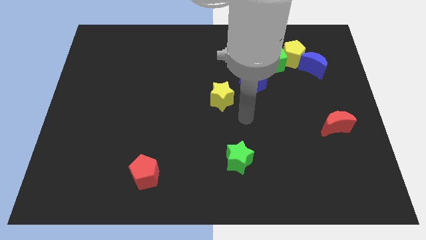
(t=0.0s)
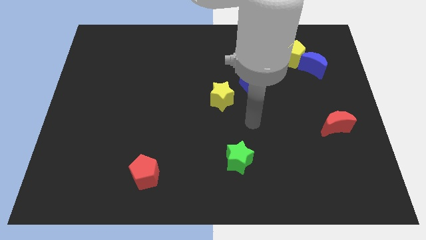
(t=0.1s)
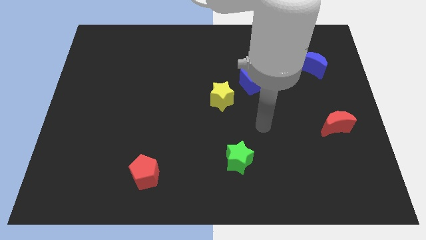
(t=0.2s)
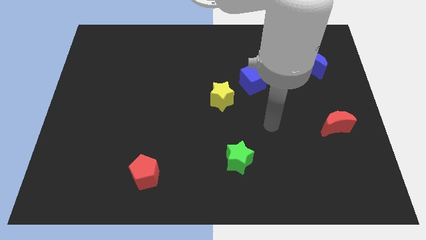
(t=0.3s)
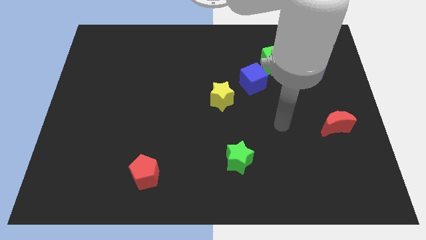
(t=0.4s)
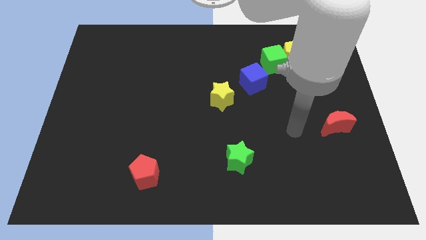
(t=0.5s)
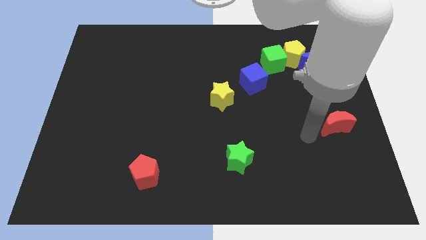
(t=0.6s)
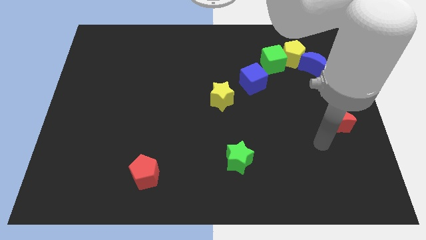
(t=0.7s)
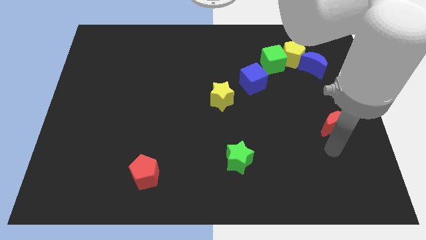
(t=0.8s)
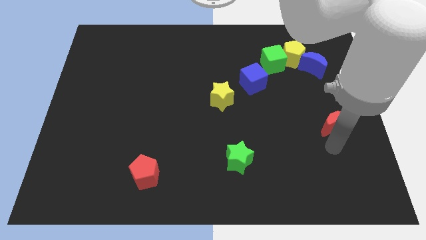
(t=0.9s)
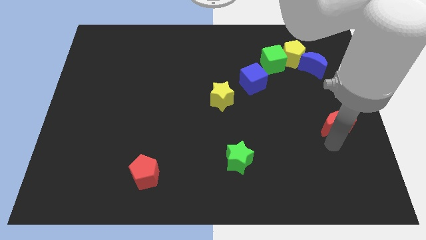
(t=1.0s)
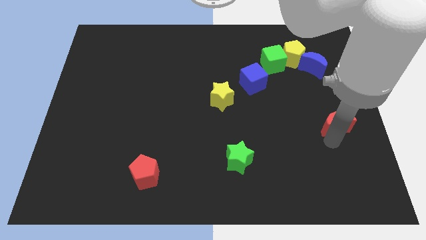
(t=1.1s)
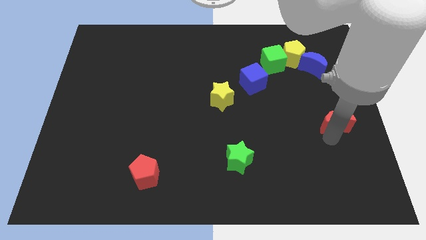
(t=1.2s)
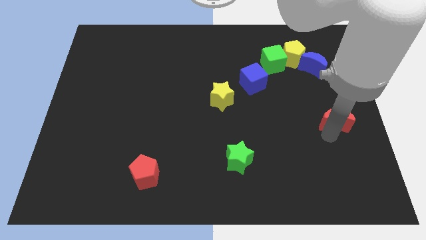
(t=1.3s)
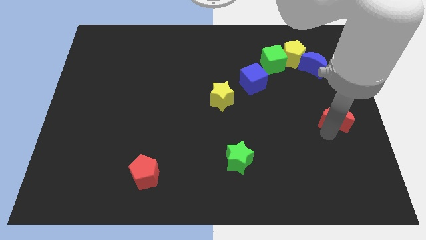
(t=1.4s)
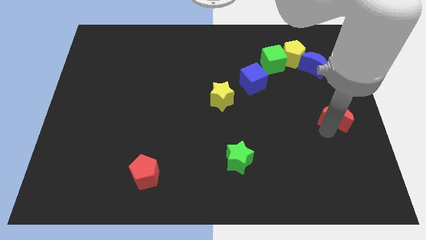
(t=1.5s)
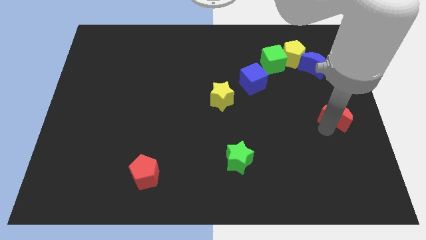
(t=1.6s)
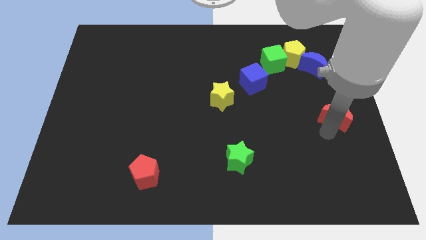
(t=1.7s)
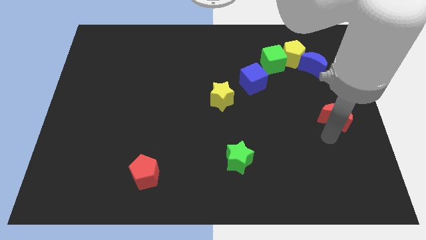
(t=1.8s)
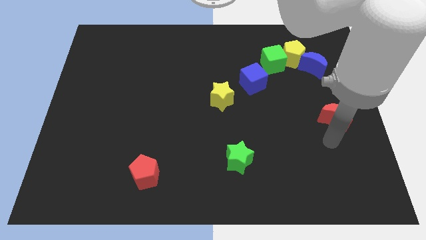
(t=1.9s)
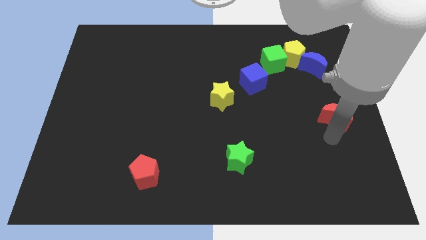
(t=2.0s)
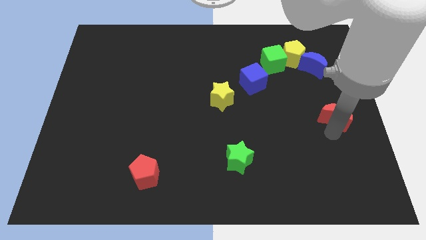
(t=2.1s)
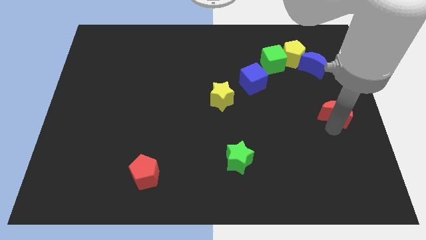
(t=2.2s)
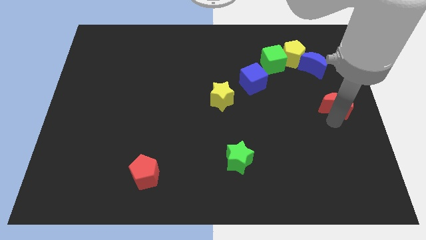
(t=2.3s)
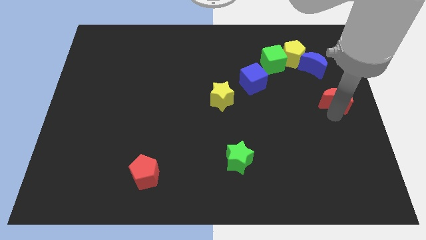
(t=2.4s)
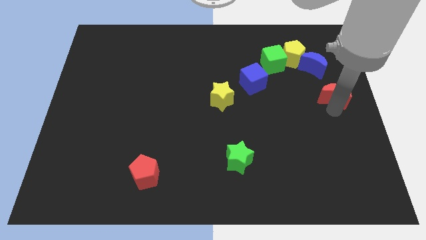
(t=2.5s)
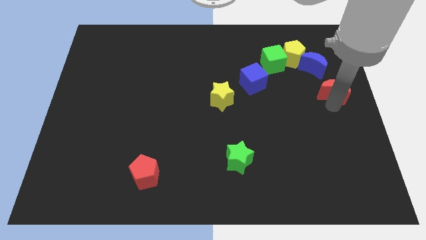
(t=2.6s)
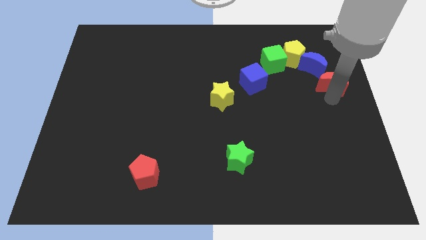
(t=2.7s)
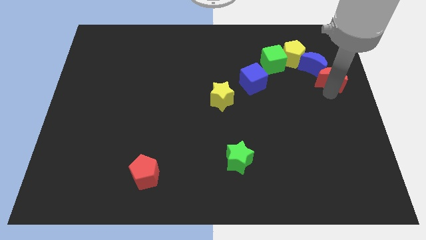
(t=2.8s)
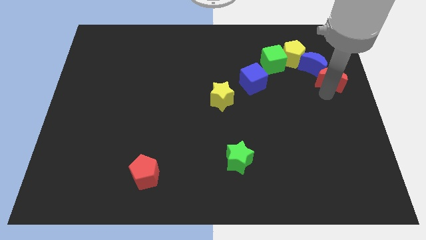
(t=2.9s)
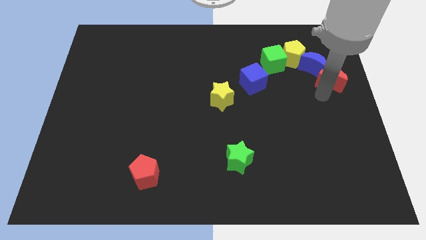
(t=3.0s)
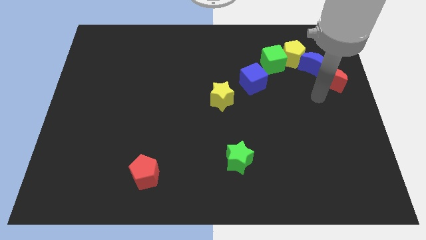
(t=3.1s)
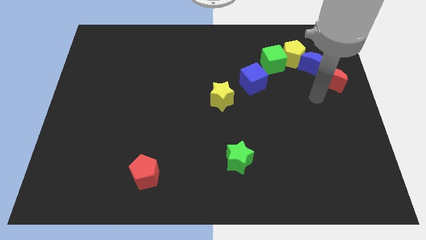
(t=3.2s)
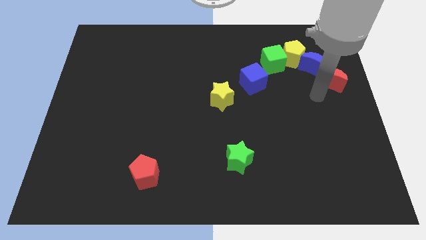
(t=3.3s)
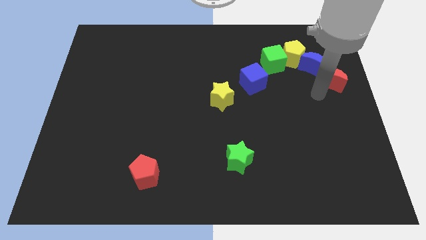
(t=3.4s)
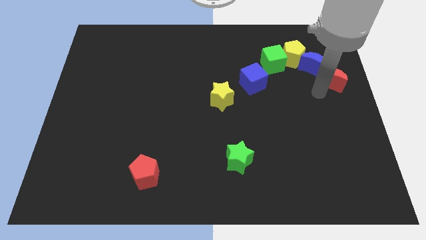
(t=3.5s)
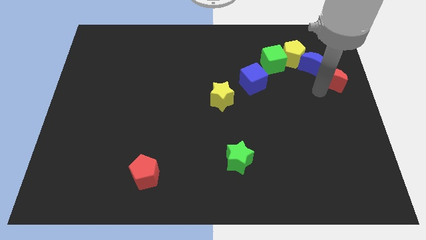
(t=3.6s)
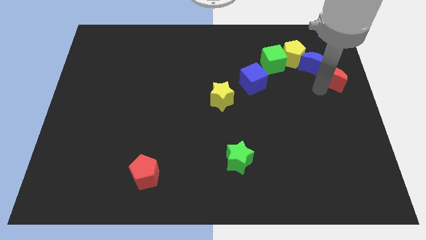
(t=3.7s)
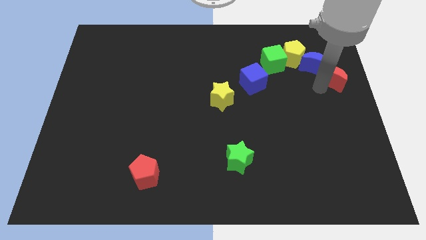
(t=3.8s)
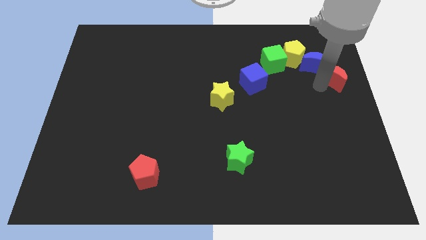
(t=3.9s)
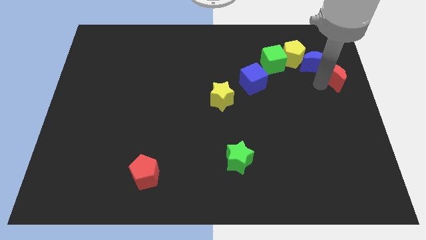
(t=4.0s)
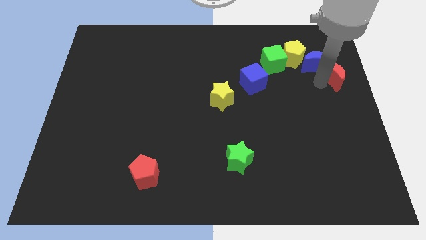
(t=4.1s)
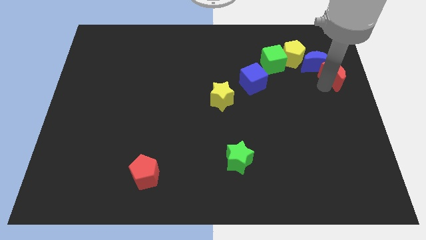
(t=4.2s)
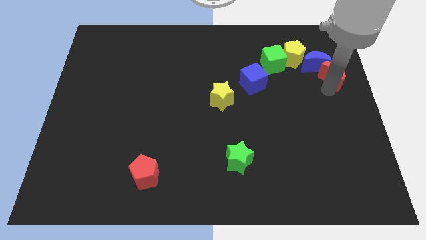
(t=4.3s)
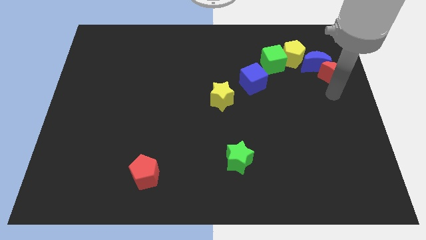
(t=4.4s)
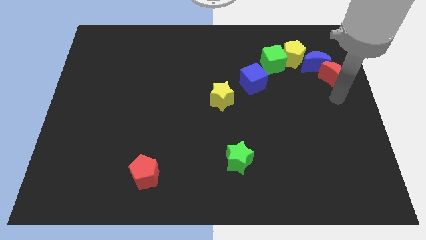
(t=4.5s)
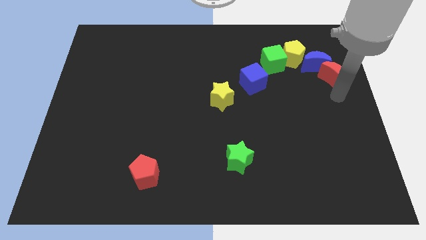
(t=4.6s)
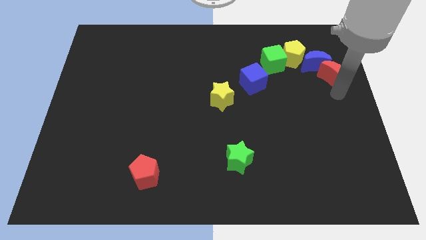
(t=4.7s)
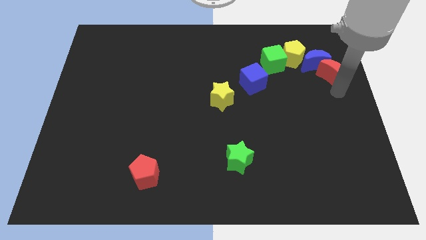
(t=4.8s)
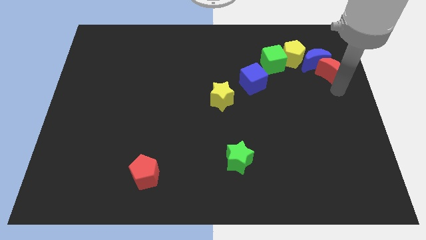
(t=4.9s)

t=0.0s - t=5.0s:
push the red moon just right of the green cube

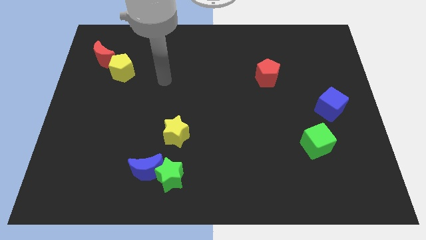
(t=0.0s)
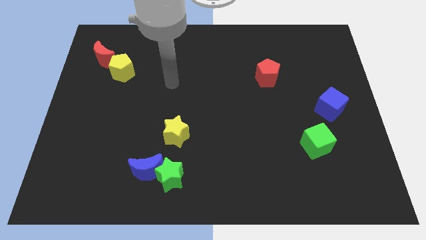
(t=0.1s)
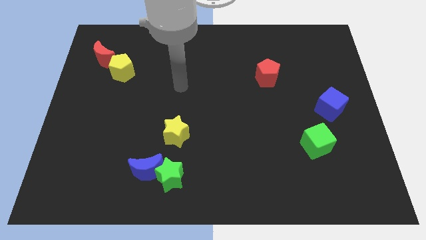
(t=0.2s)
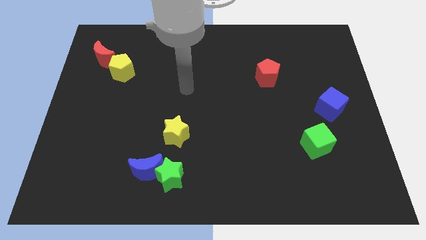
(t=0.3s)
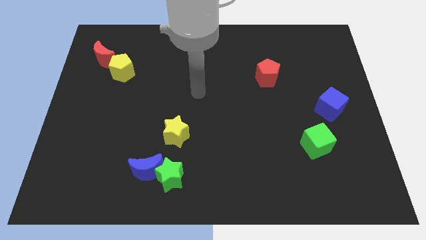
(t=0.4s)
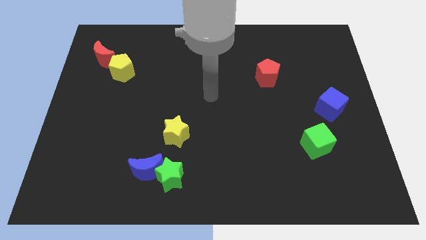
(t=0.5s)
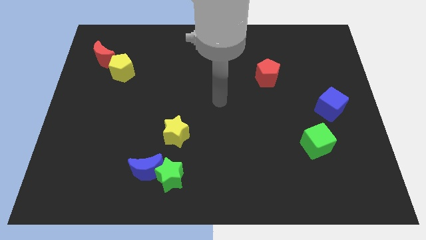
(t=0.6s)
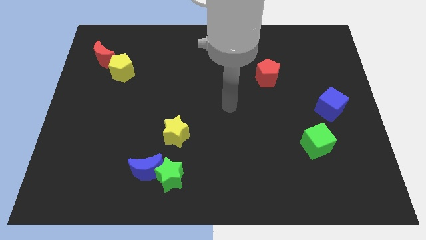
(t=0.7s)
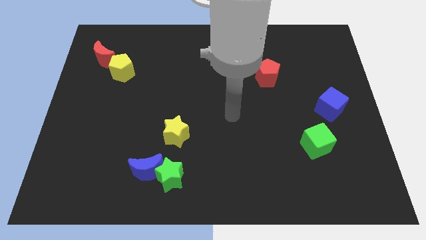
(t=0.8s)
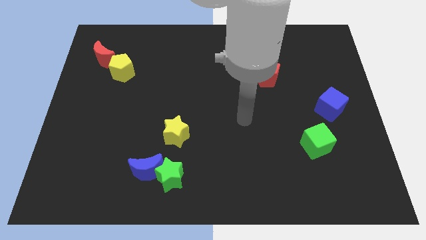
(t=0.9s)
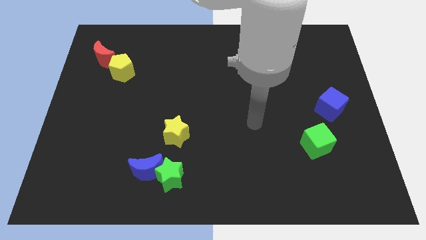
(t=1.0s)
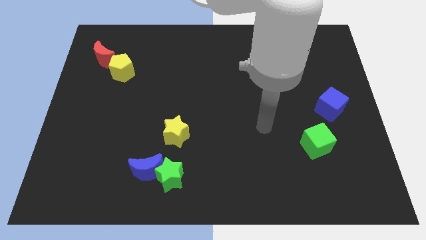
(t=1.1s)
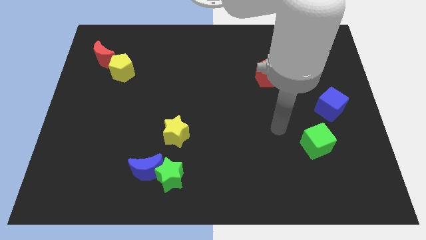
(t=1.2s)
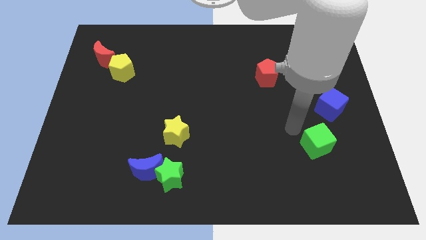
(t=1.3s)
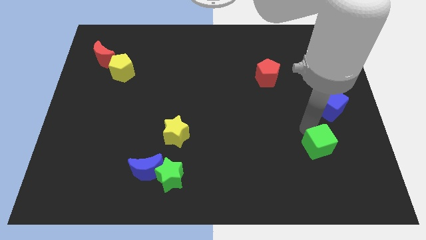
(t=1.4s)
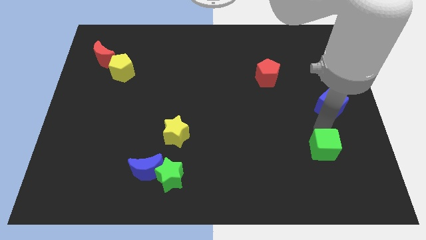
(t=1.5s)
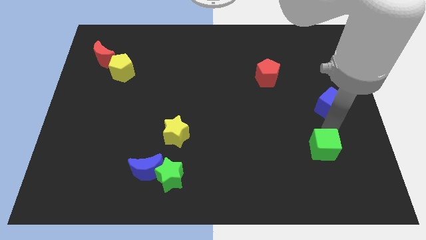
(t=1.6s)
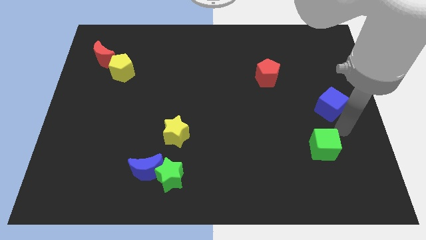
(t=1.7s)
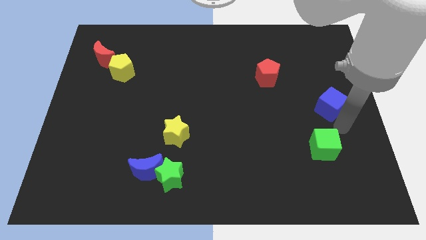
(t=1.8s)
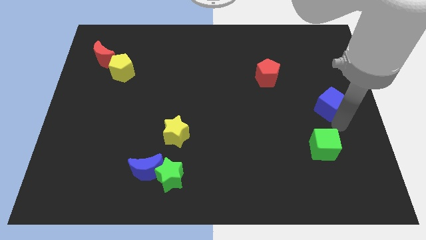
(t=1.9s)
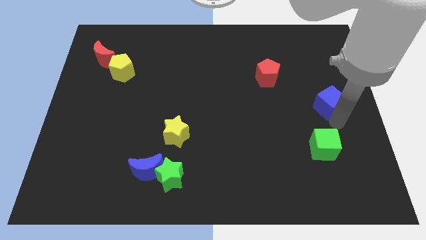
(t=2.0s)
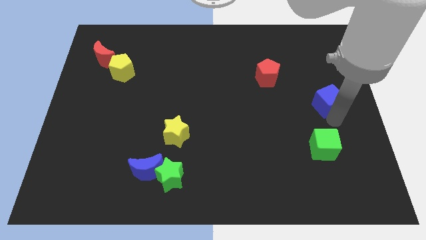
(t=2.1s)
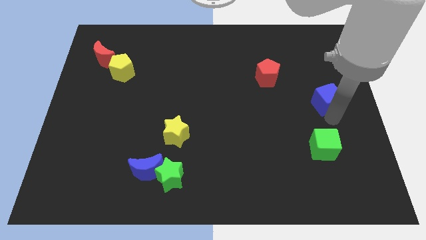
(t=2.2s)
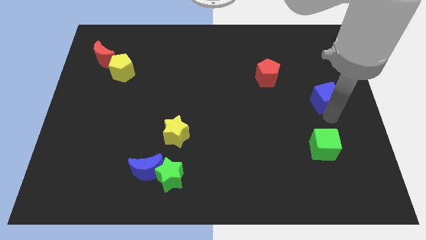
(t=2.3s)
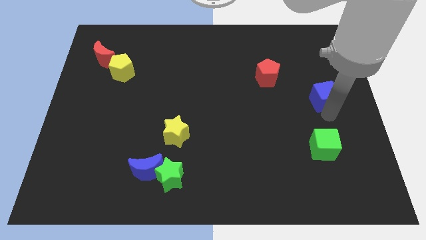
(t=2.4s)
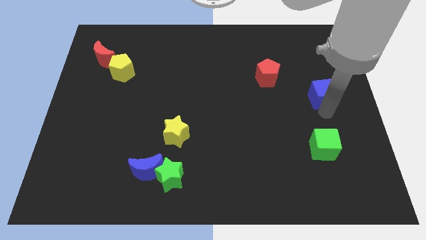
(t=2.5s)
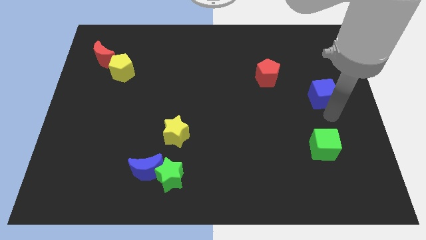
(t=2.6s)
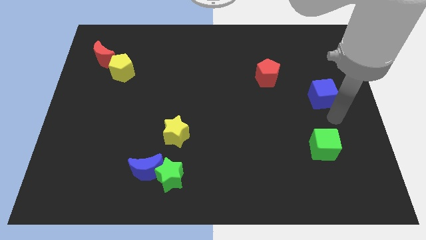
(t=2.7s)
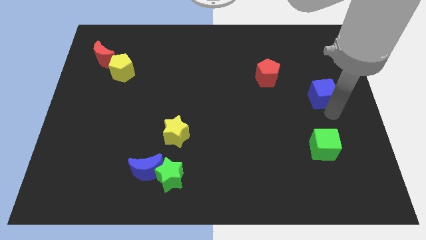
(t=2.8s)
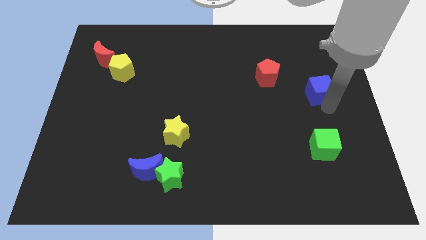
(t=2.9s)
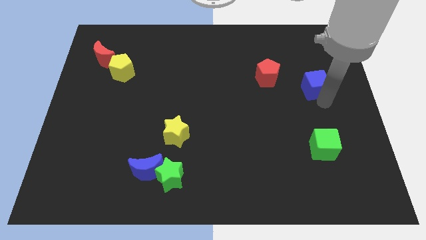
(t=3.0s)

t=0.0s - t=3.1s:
slide the blue cube to the right of the red pentagon

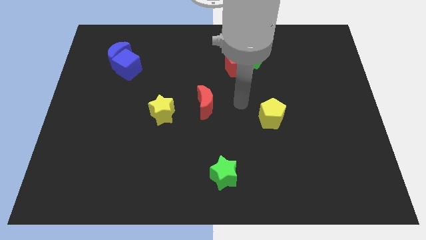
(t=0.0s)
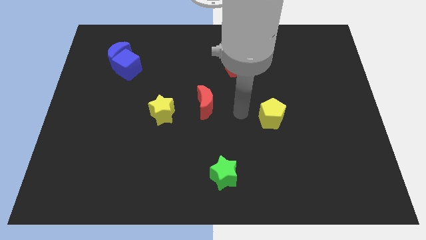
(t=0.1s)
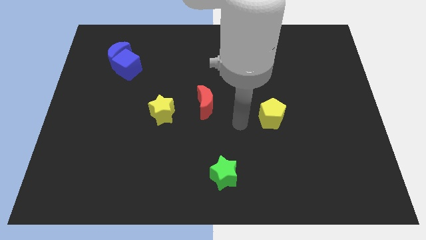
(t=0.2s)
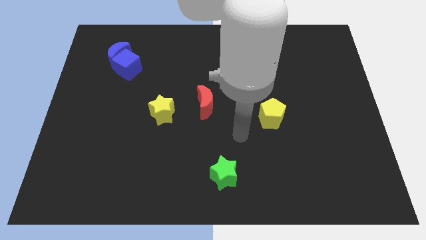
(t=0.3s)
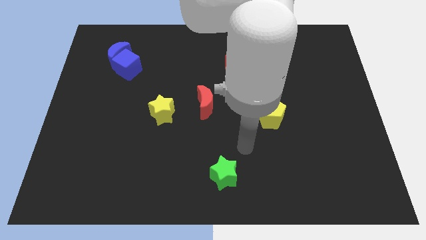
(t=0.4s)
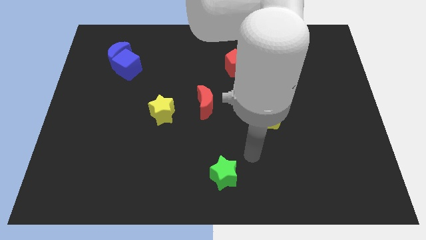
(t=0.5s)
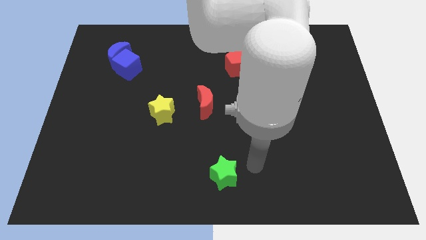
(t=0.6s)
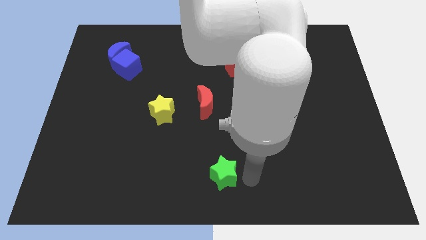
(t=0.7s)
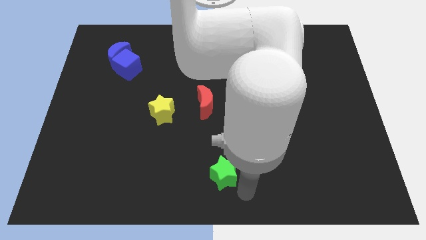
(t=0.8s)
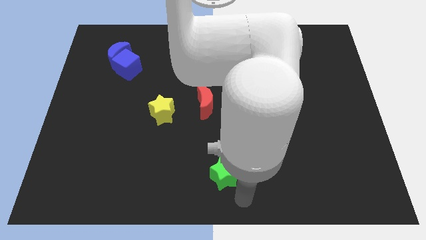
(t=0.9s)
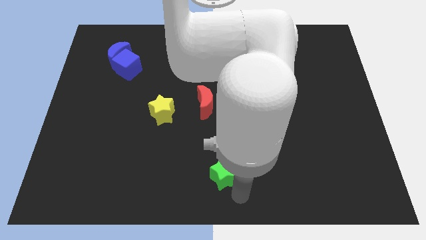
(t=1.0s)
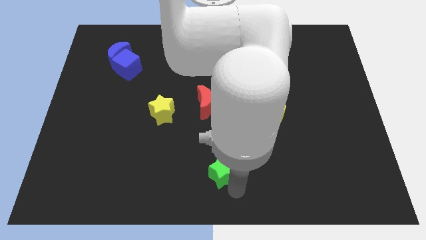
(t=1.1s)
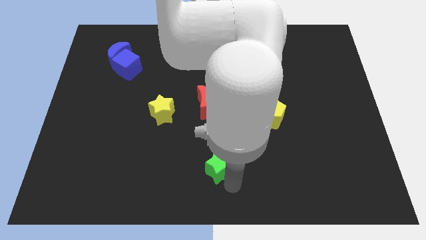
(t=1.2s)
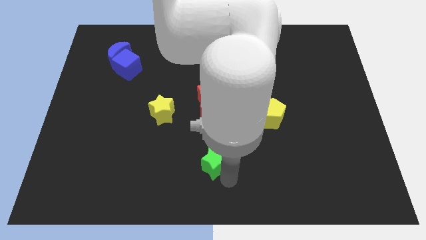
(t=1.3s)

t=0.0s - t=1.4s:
slide the green star to the bottom of the red moon
